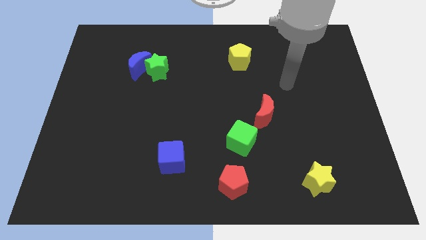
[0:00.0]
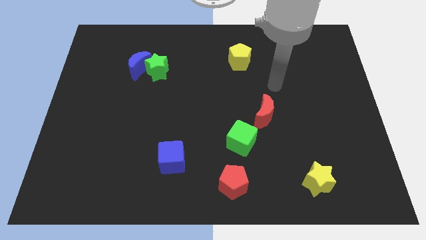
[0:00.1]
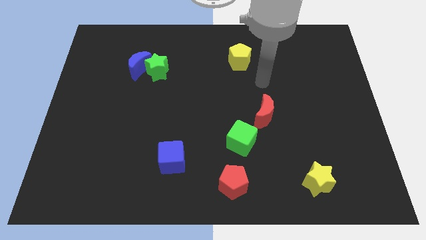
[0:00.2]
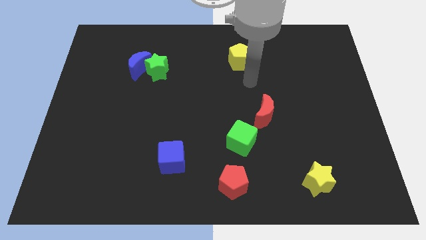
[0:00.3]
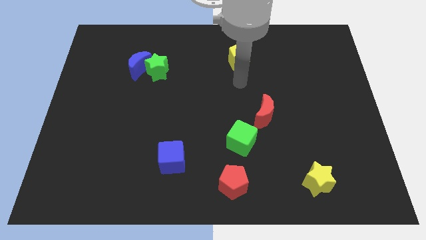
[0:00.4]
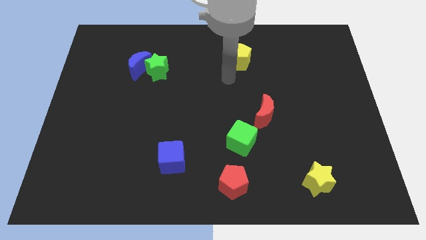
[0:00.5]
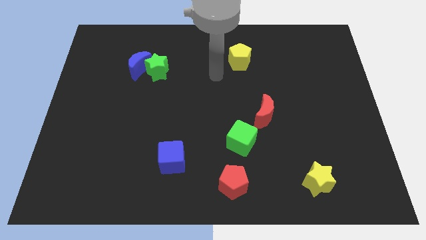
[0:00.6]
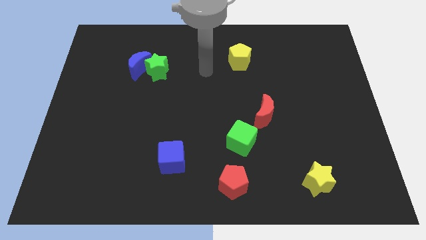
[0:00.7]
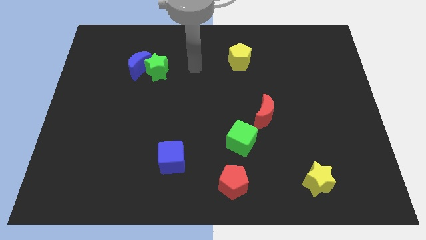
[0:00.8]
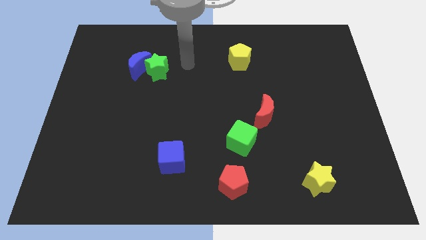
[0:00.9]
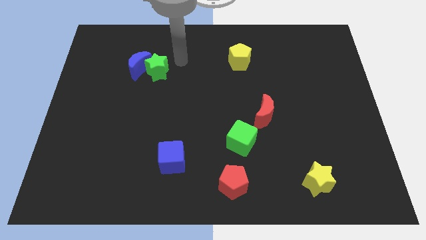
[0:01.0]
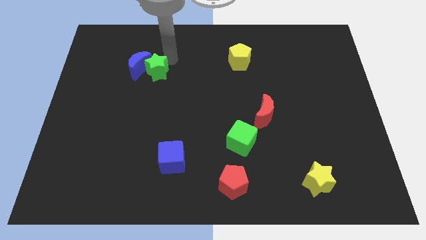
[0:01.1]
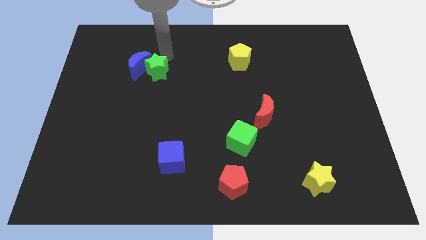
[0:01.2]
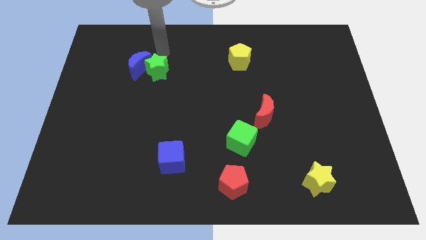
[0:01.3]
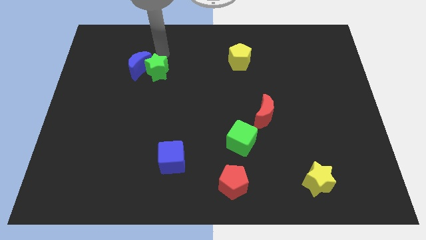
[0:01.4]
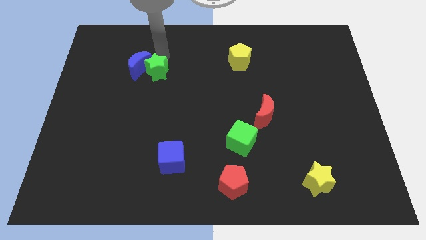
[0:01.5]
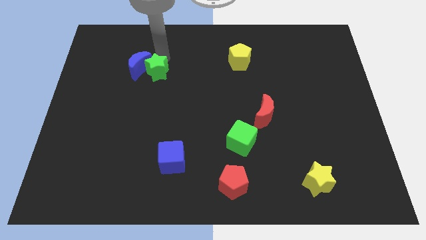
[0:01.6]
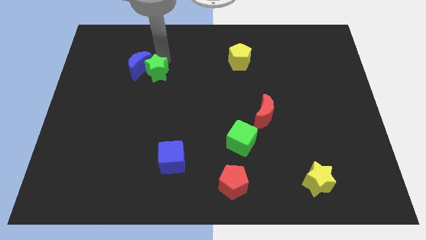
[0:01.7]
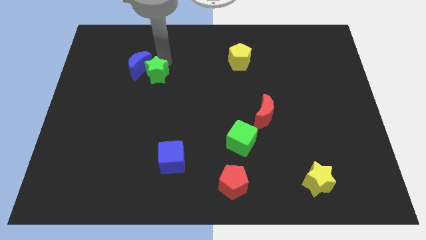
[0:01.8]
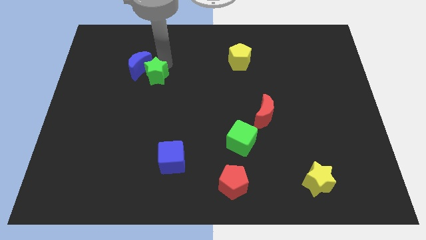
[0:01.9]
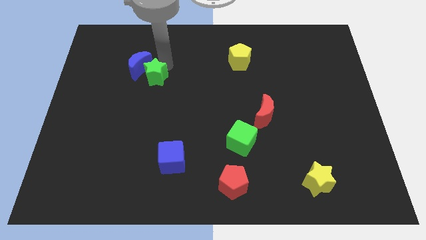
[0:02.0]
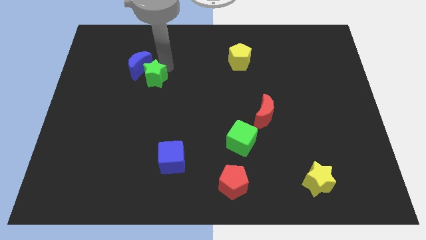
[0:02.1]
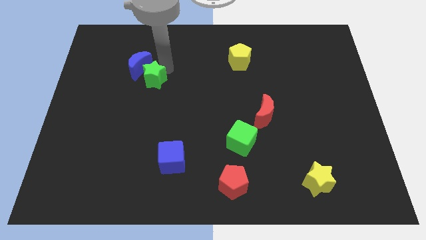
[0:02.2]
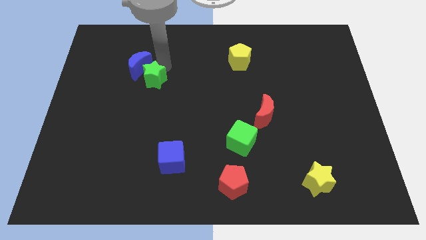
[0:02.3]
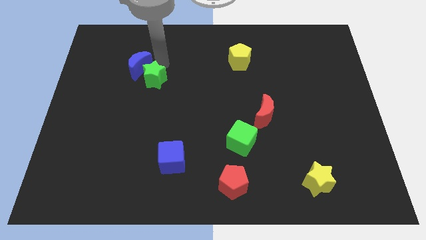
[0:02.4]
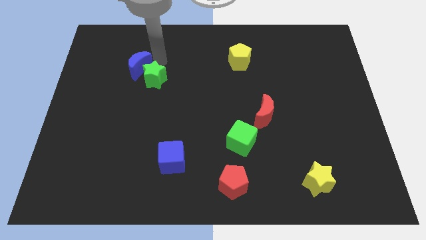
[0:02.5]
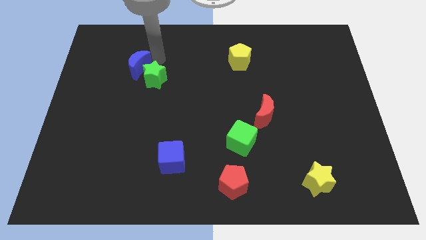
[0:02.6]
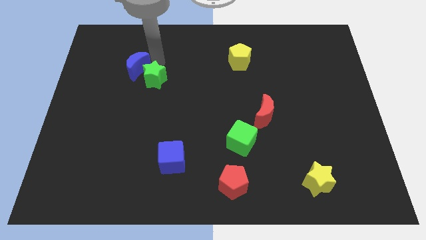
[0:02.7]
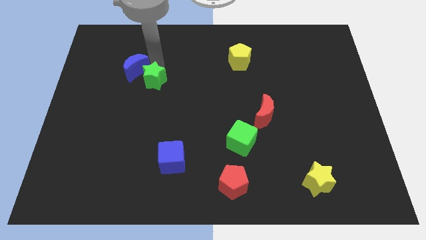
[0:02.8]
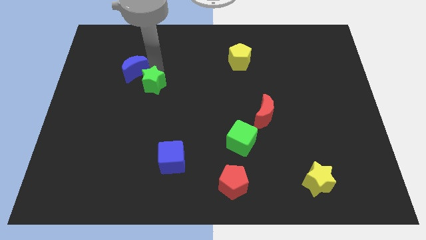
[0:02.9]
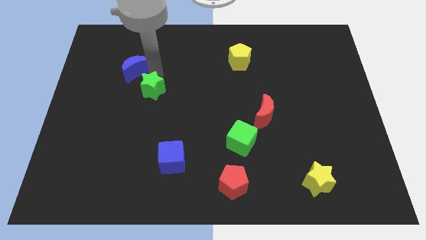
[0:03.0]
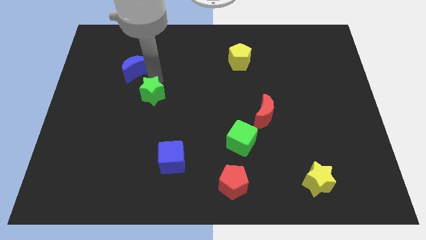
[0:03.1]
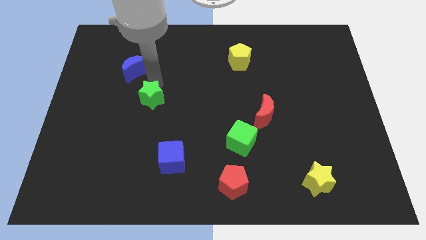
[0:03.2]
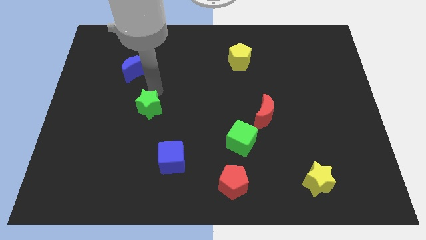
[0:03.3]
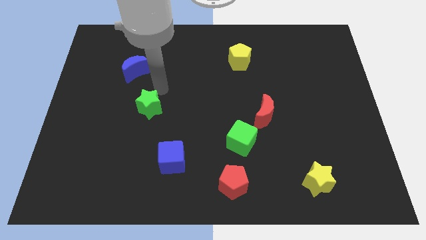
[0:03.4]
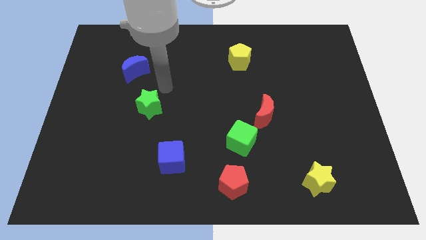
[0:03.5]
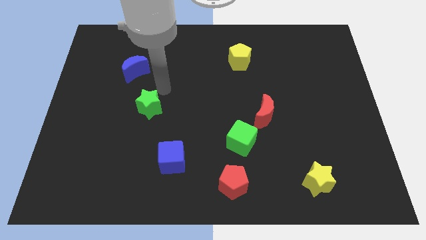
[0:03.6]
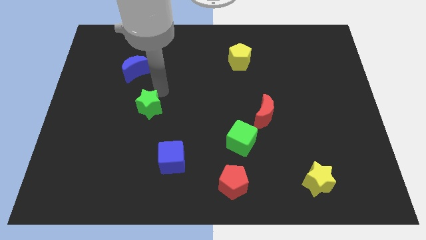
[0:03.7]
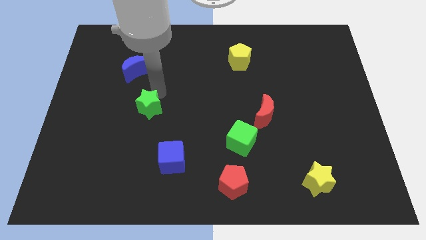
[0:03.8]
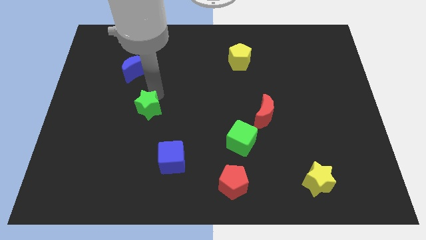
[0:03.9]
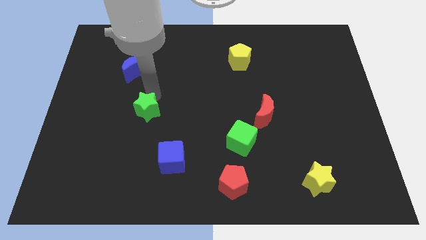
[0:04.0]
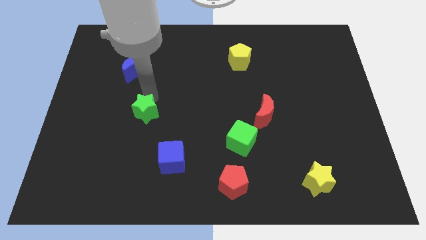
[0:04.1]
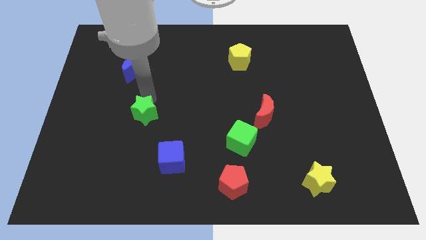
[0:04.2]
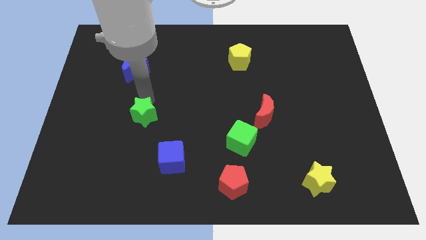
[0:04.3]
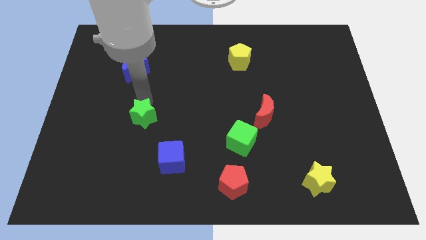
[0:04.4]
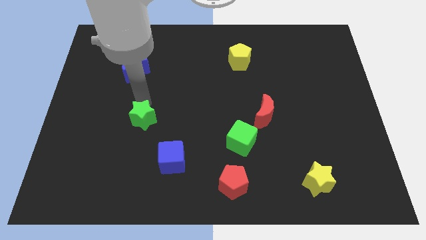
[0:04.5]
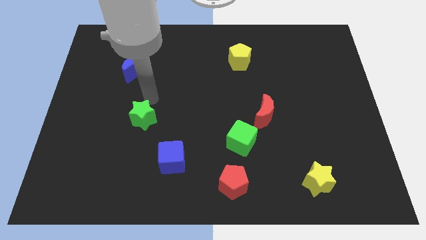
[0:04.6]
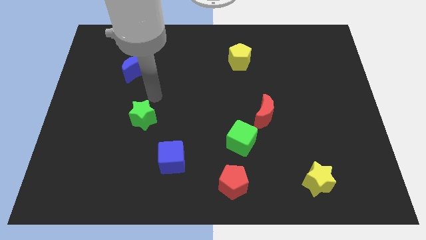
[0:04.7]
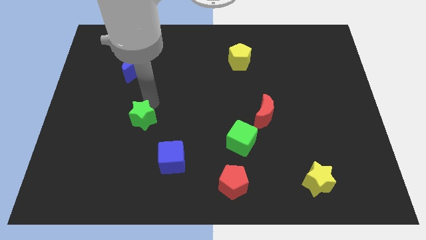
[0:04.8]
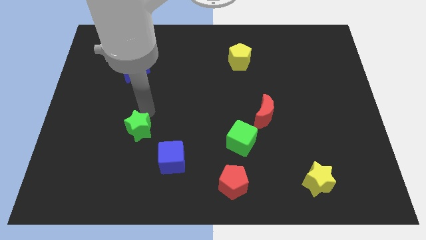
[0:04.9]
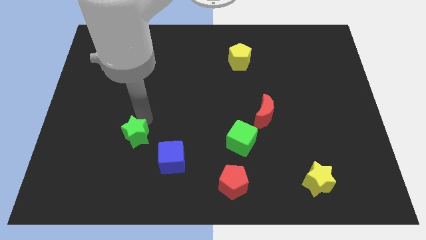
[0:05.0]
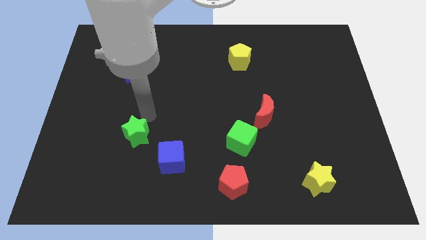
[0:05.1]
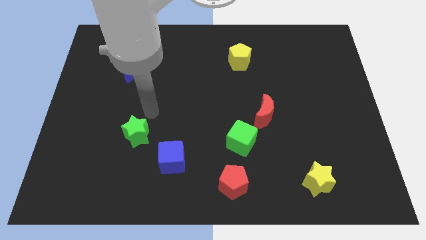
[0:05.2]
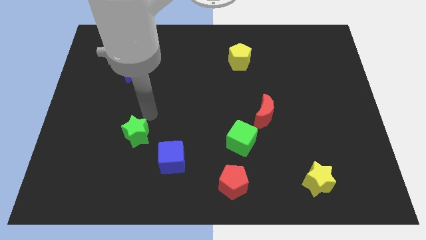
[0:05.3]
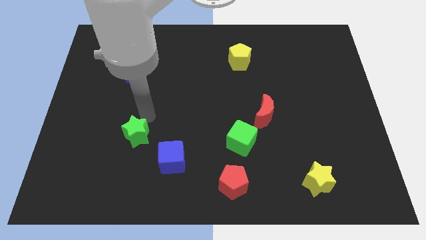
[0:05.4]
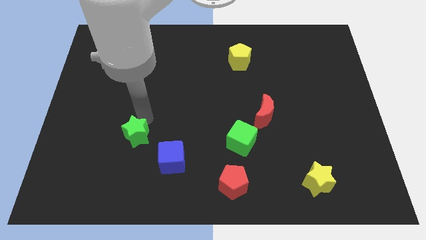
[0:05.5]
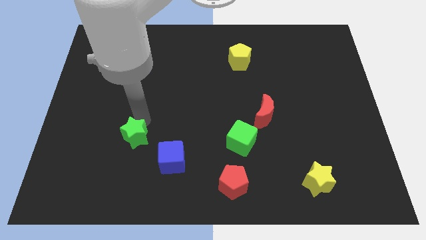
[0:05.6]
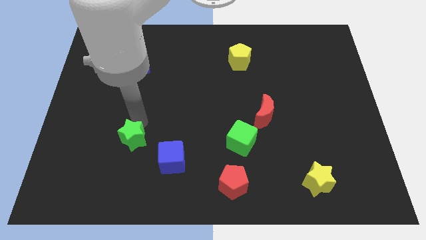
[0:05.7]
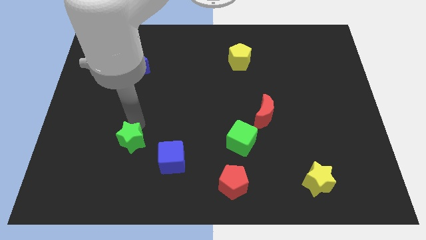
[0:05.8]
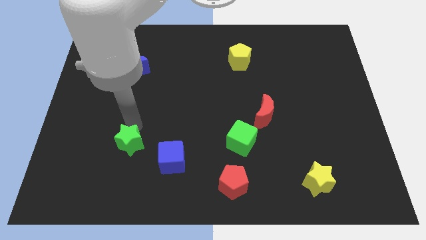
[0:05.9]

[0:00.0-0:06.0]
slide the green star just left of the blue cube

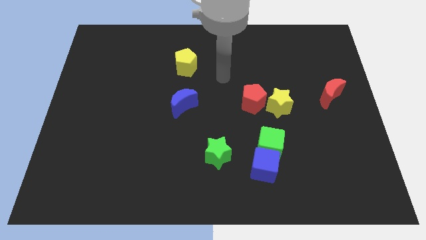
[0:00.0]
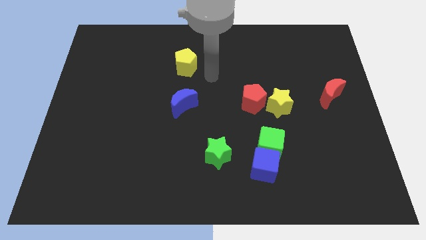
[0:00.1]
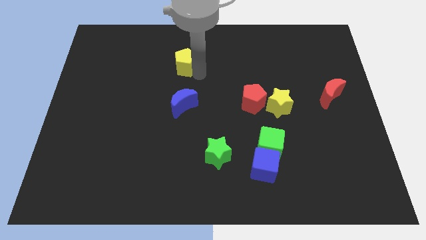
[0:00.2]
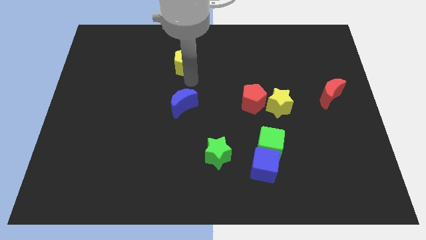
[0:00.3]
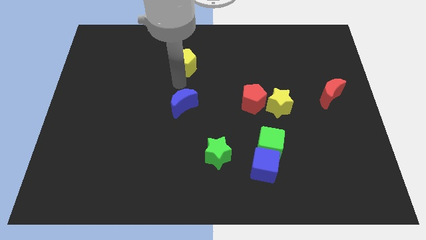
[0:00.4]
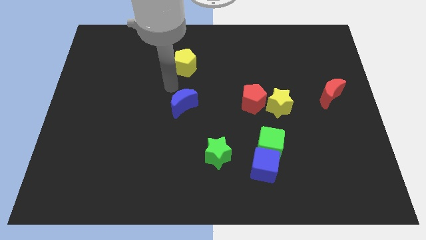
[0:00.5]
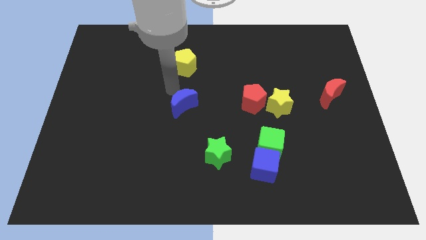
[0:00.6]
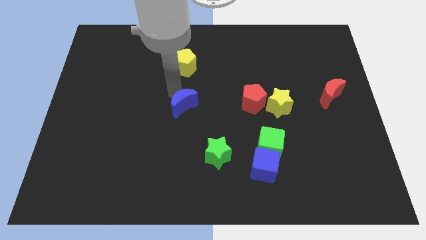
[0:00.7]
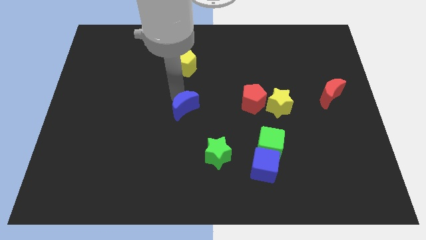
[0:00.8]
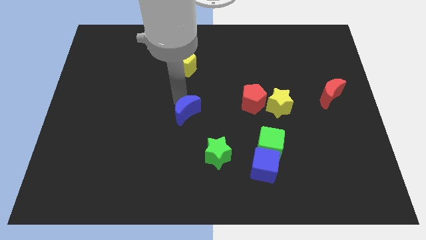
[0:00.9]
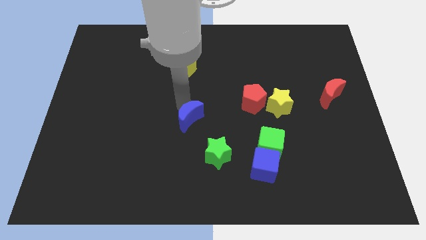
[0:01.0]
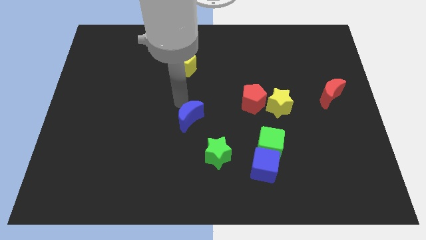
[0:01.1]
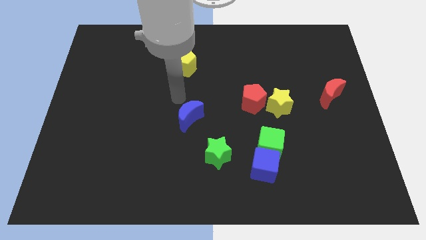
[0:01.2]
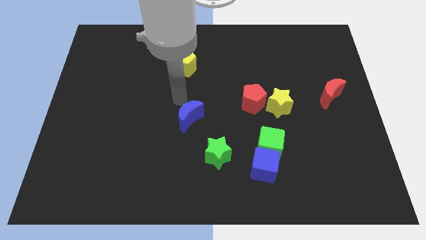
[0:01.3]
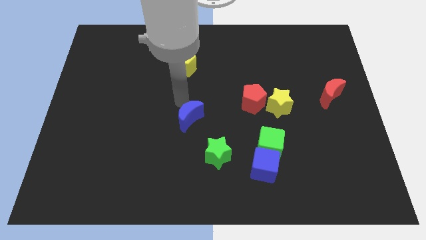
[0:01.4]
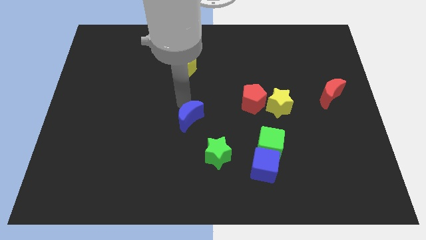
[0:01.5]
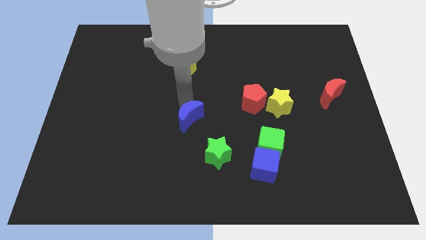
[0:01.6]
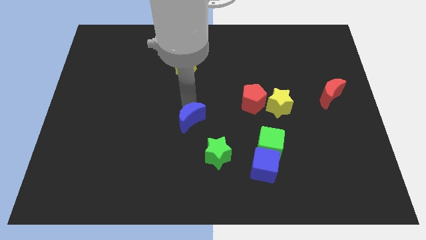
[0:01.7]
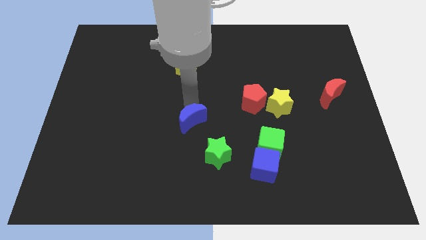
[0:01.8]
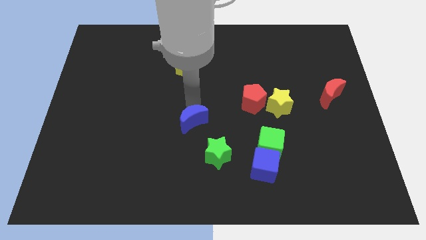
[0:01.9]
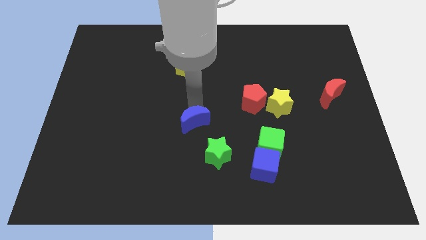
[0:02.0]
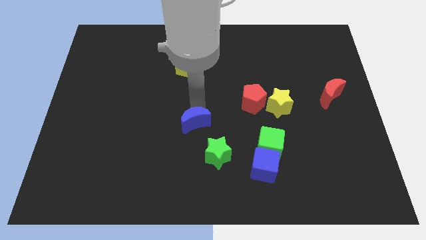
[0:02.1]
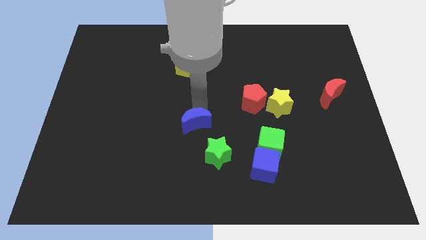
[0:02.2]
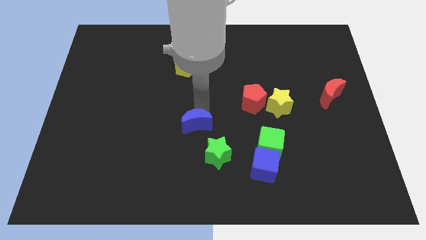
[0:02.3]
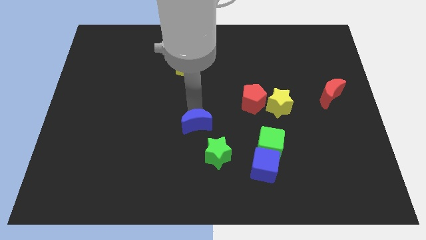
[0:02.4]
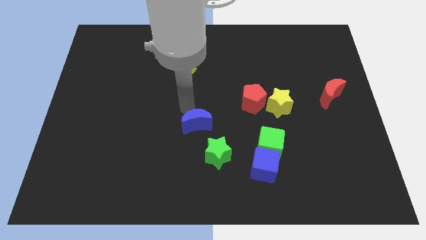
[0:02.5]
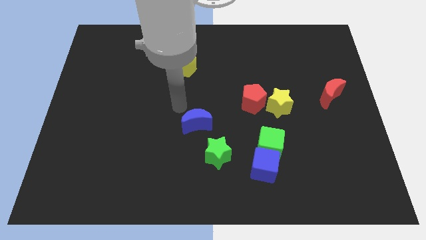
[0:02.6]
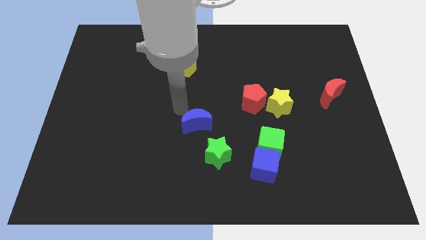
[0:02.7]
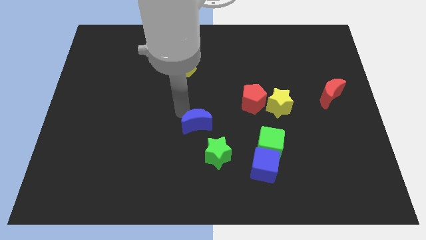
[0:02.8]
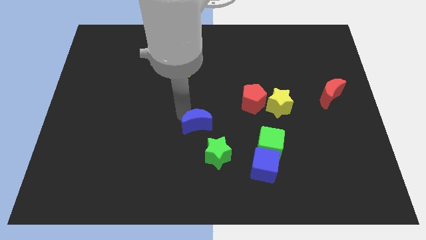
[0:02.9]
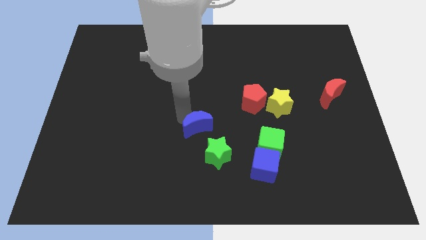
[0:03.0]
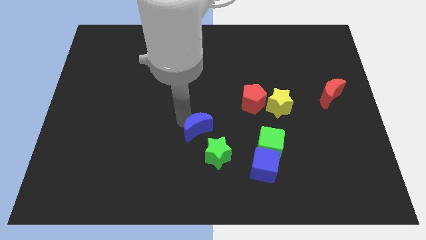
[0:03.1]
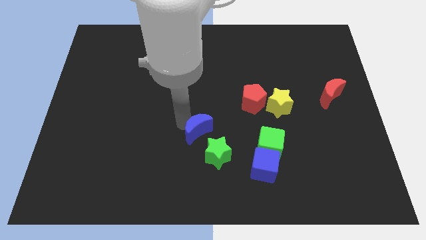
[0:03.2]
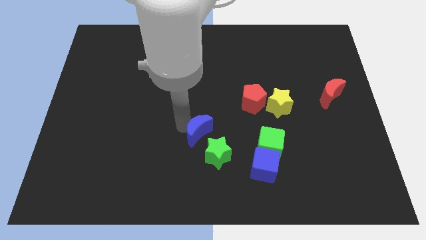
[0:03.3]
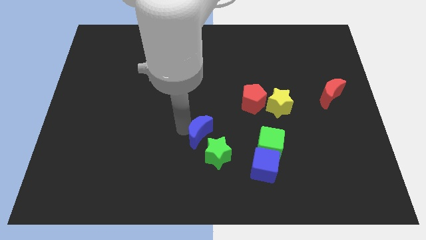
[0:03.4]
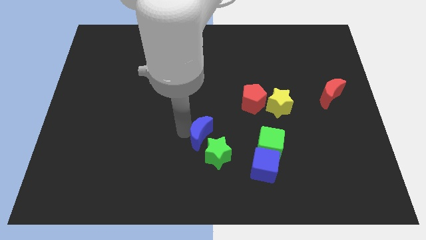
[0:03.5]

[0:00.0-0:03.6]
move the blue moon left of the green cube
